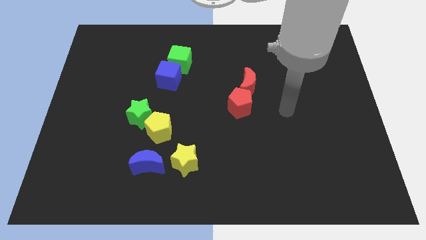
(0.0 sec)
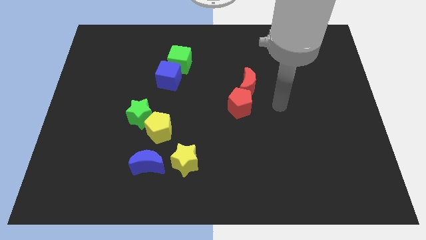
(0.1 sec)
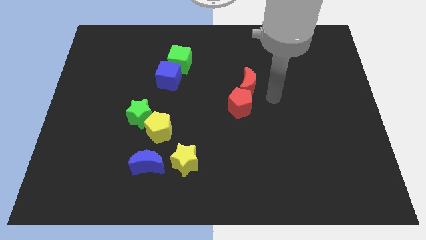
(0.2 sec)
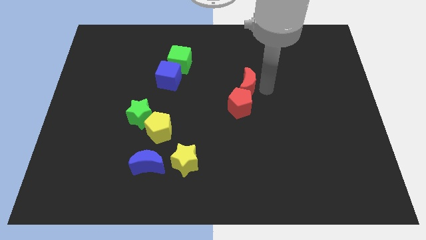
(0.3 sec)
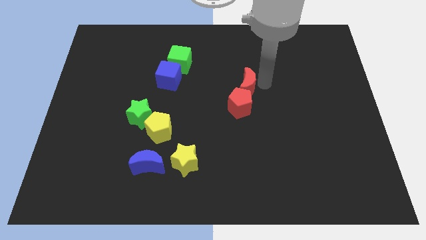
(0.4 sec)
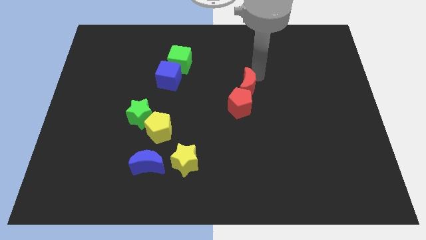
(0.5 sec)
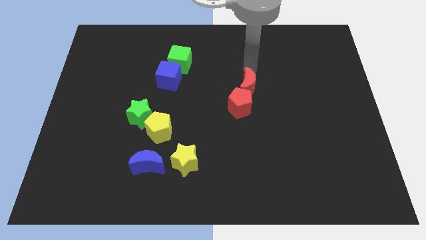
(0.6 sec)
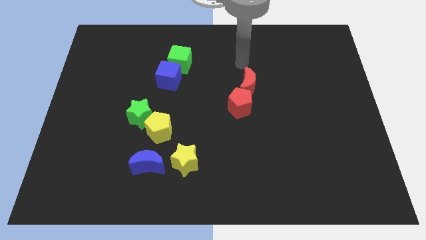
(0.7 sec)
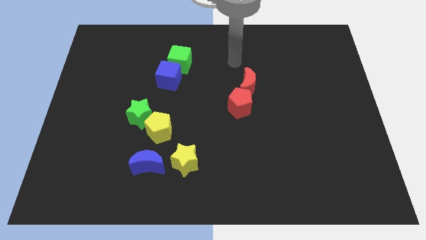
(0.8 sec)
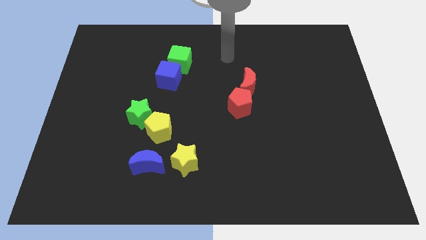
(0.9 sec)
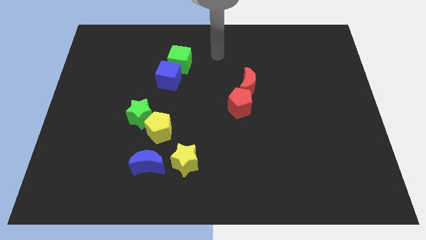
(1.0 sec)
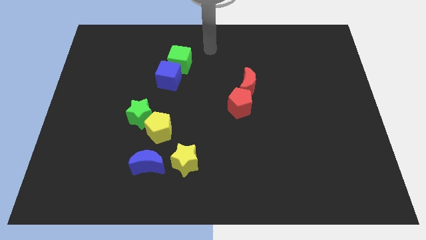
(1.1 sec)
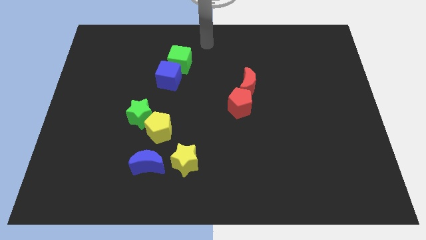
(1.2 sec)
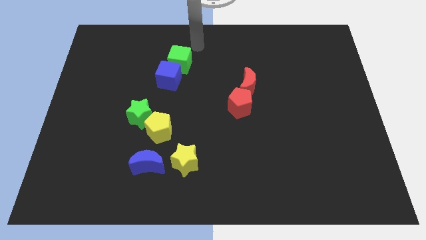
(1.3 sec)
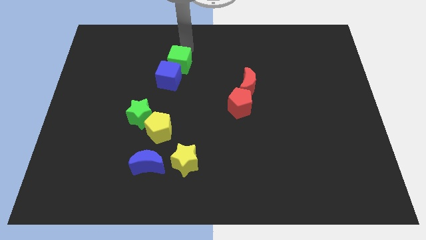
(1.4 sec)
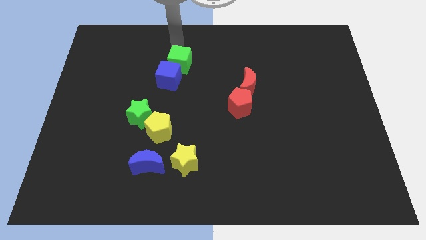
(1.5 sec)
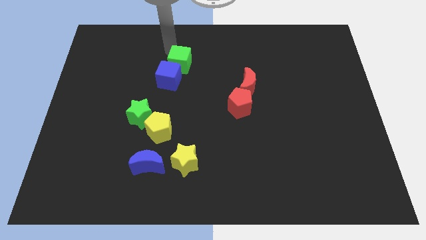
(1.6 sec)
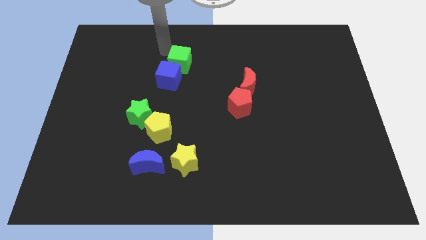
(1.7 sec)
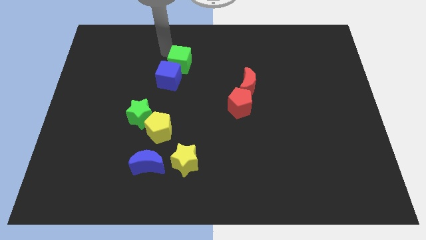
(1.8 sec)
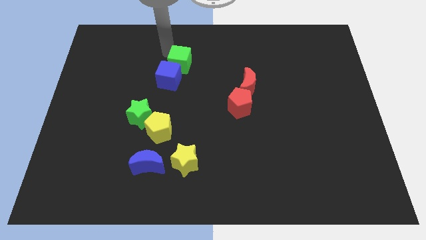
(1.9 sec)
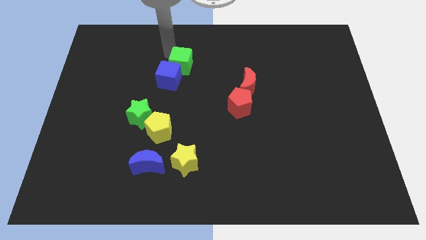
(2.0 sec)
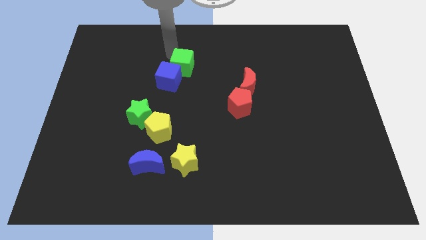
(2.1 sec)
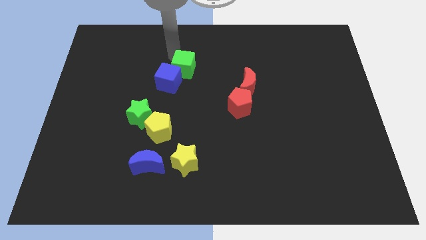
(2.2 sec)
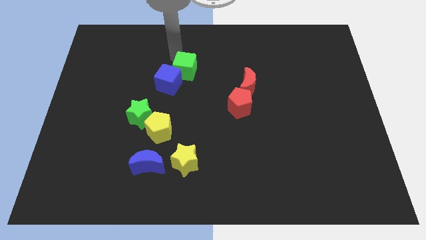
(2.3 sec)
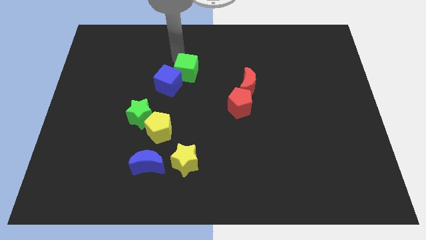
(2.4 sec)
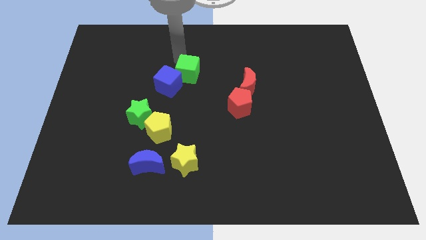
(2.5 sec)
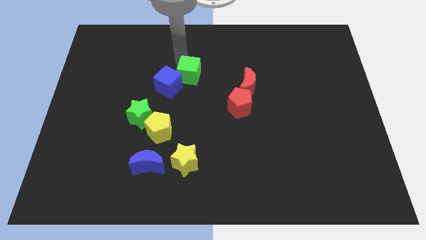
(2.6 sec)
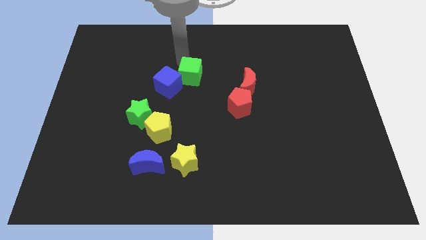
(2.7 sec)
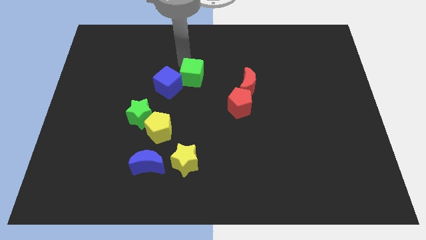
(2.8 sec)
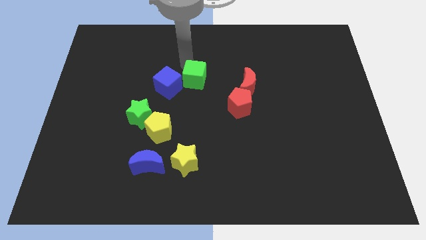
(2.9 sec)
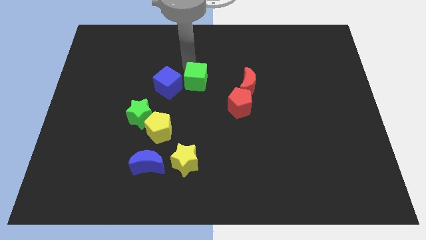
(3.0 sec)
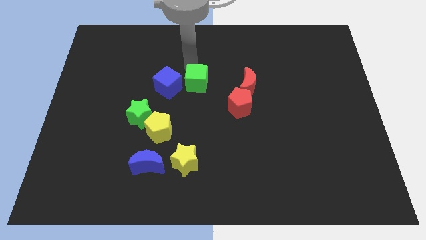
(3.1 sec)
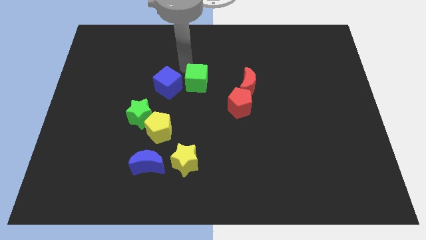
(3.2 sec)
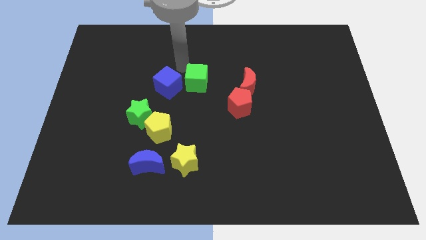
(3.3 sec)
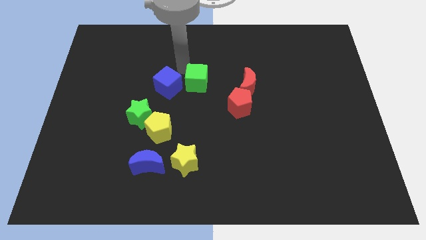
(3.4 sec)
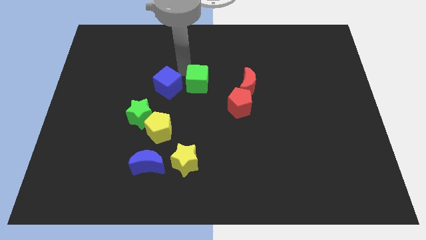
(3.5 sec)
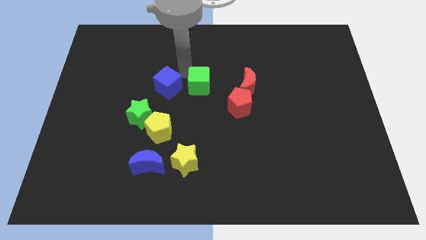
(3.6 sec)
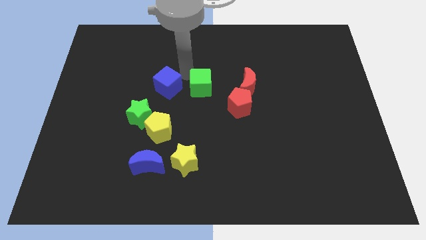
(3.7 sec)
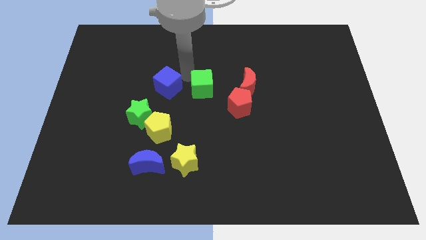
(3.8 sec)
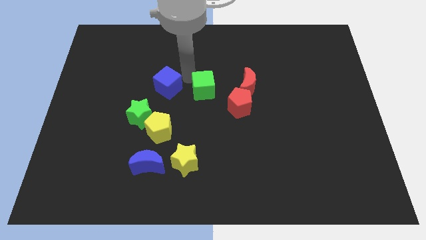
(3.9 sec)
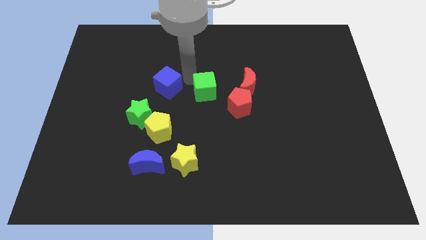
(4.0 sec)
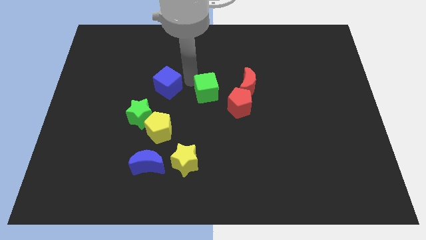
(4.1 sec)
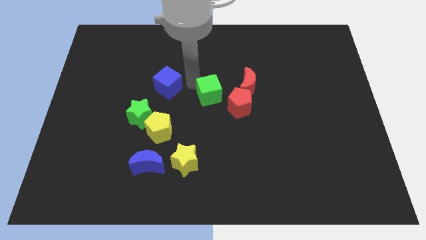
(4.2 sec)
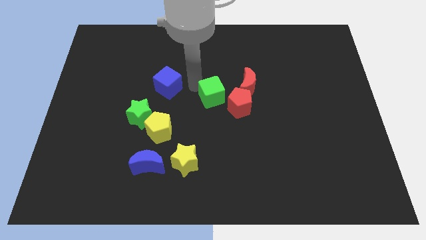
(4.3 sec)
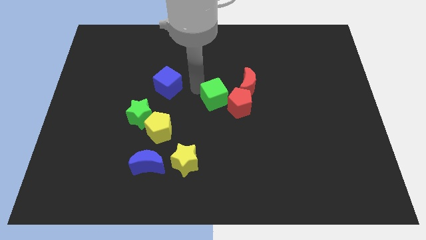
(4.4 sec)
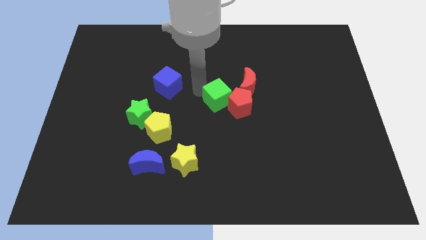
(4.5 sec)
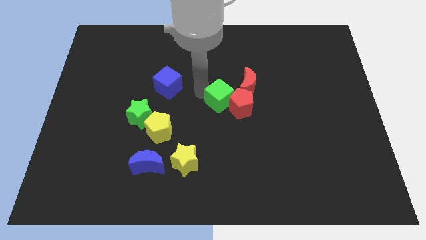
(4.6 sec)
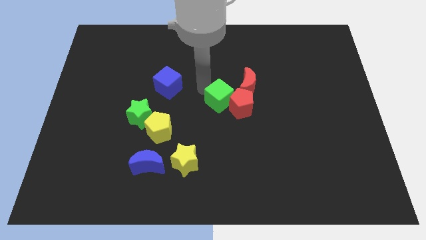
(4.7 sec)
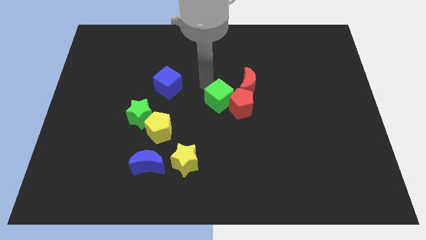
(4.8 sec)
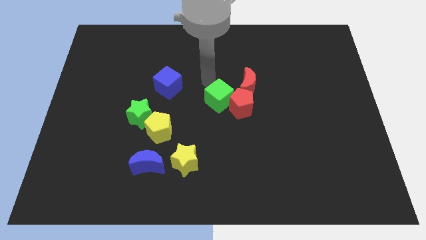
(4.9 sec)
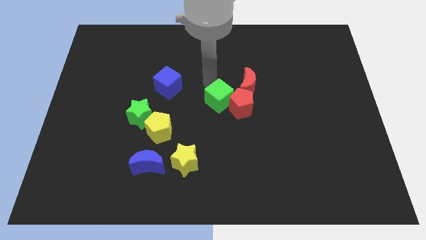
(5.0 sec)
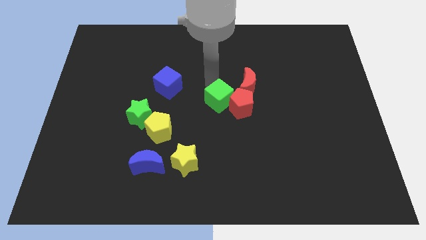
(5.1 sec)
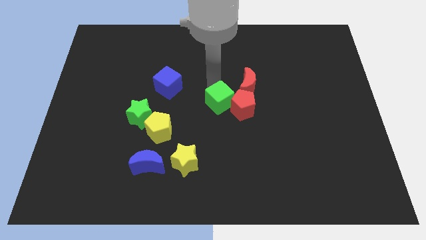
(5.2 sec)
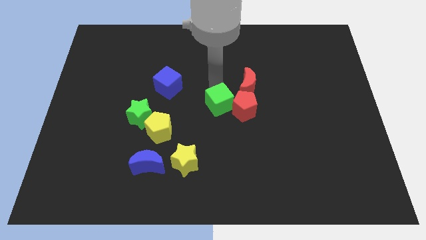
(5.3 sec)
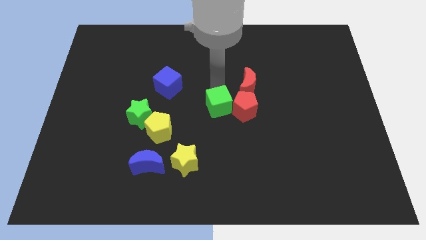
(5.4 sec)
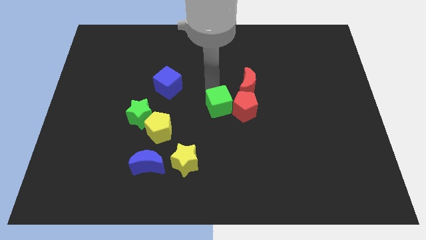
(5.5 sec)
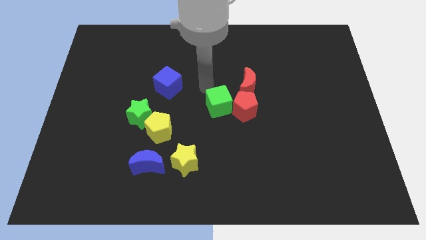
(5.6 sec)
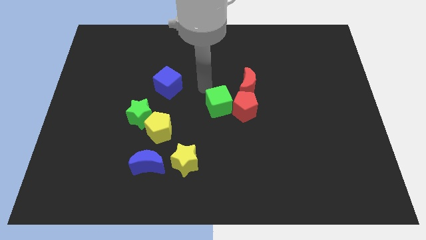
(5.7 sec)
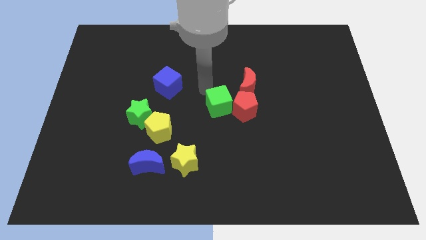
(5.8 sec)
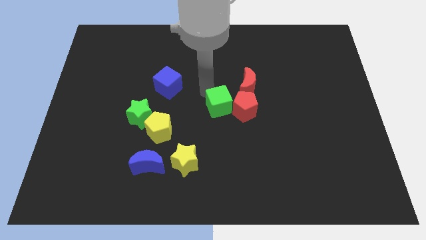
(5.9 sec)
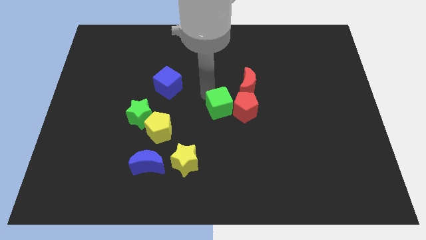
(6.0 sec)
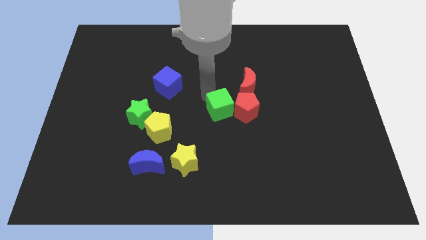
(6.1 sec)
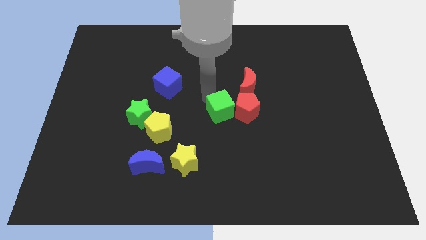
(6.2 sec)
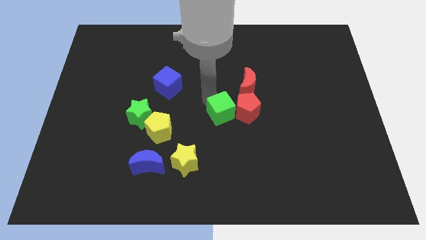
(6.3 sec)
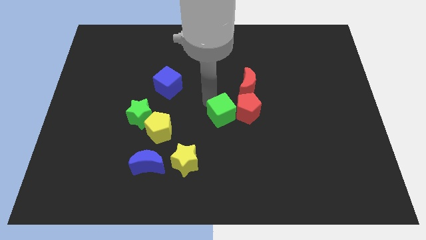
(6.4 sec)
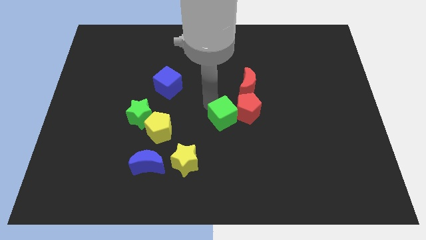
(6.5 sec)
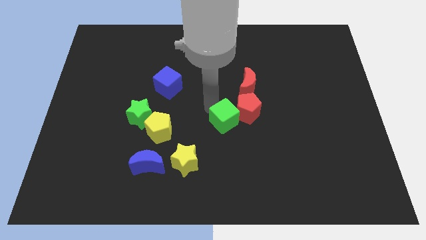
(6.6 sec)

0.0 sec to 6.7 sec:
push the green cube downwards and then to the right

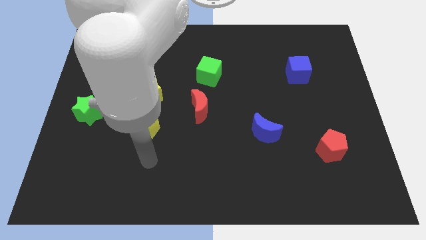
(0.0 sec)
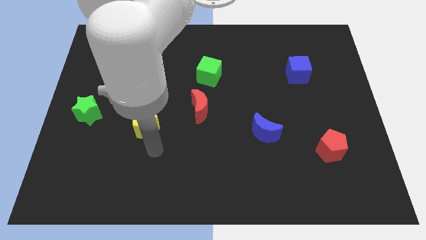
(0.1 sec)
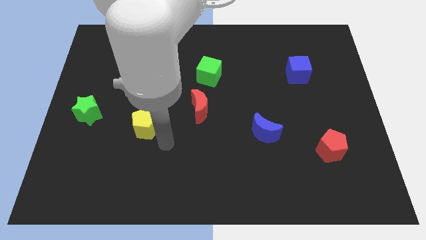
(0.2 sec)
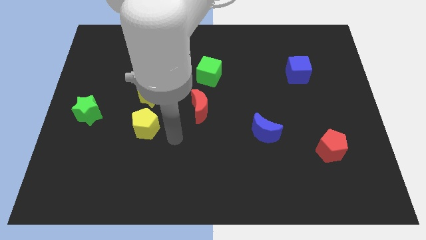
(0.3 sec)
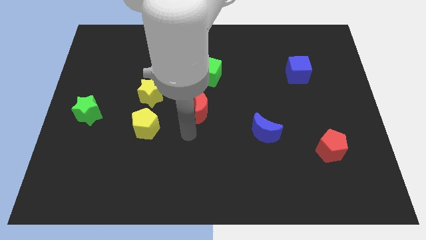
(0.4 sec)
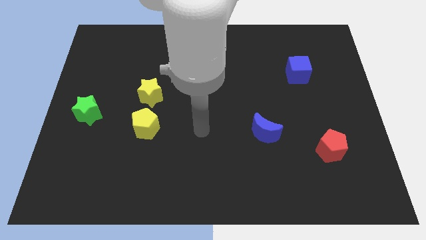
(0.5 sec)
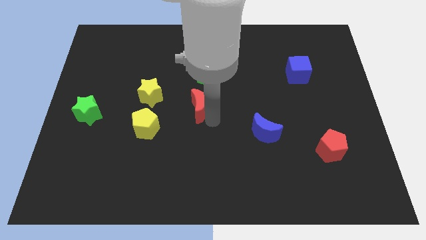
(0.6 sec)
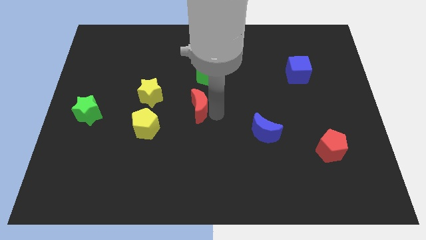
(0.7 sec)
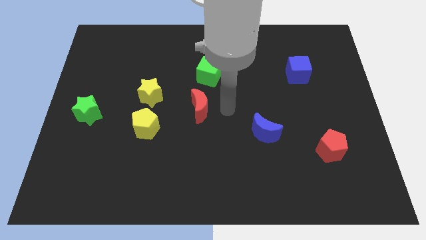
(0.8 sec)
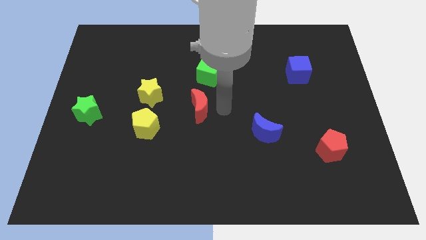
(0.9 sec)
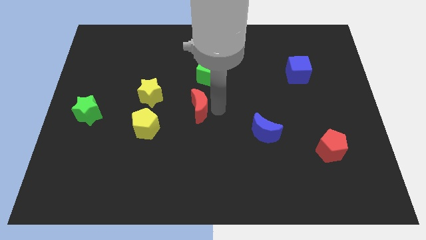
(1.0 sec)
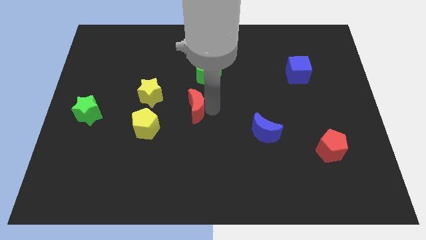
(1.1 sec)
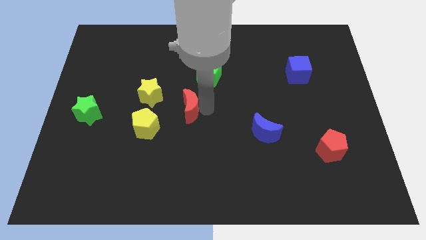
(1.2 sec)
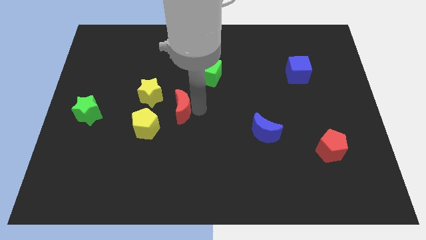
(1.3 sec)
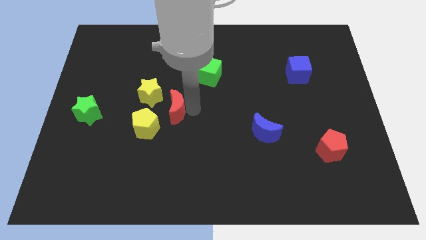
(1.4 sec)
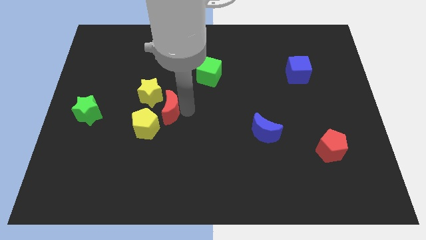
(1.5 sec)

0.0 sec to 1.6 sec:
push the red moon a little to the left

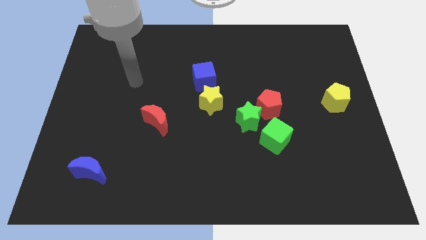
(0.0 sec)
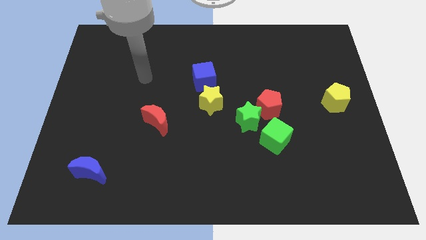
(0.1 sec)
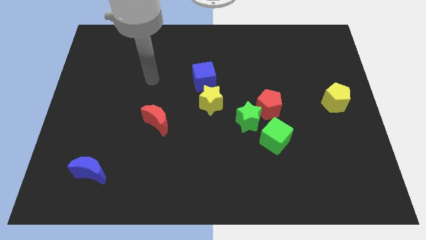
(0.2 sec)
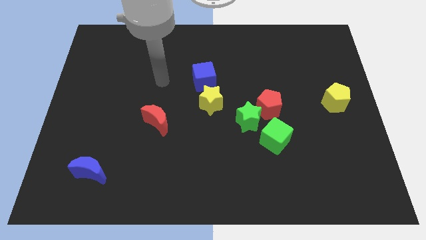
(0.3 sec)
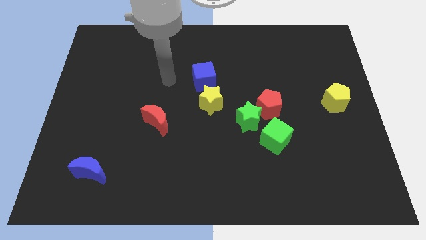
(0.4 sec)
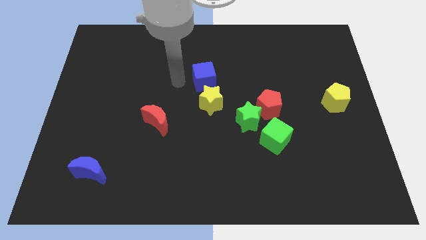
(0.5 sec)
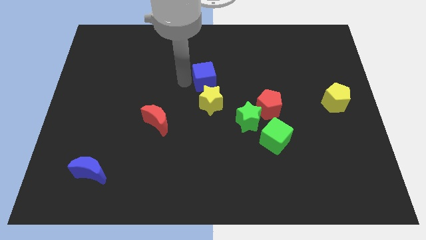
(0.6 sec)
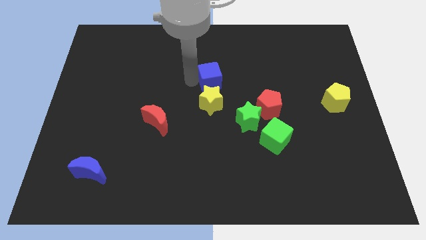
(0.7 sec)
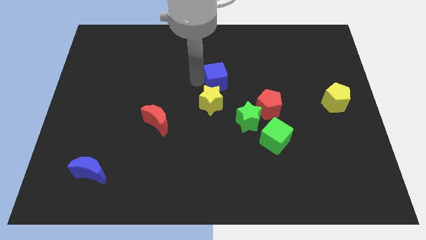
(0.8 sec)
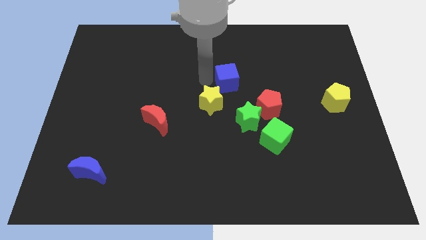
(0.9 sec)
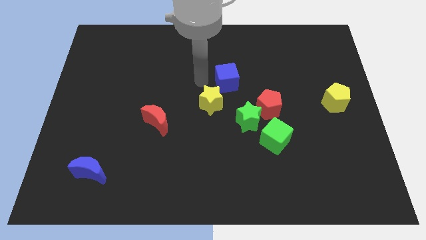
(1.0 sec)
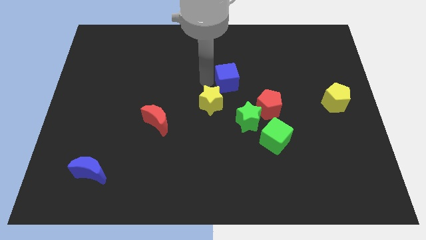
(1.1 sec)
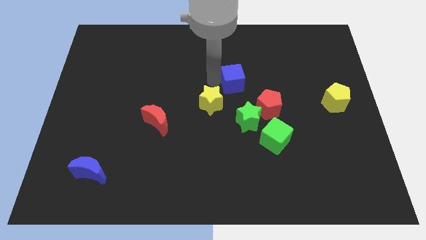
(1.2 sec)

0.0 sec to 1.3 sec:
slide the blue cube a bit to the right
